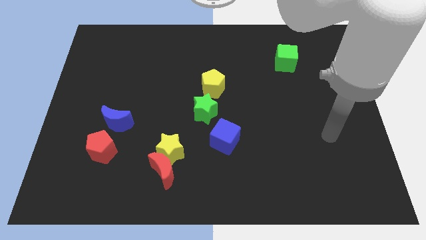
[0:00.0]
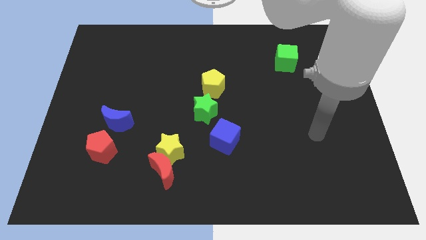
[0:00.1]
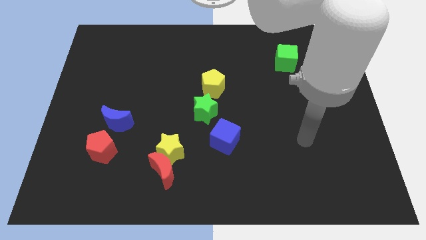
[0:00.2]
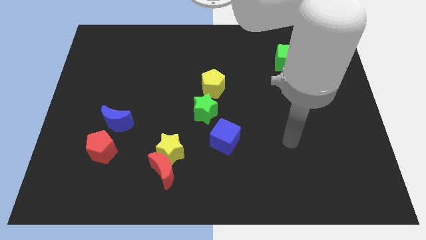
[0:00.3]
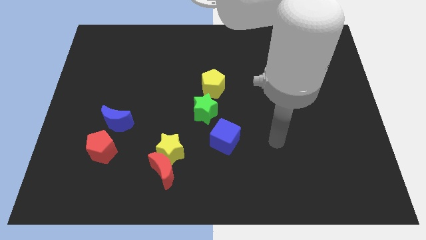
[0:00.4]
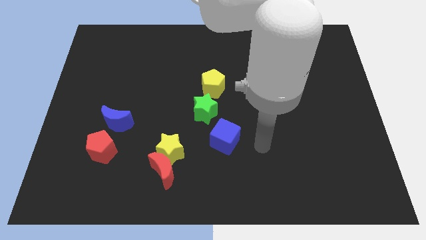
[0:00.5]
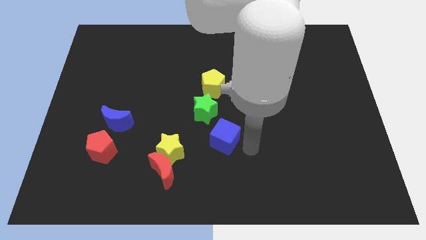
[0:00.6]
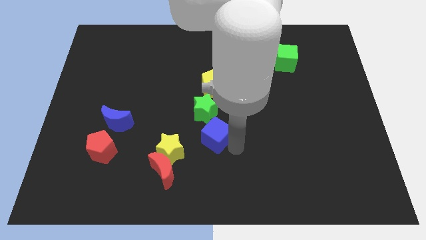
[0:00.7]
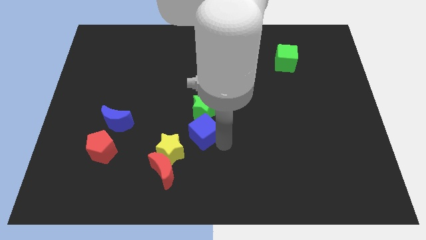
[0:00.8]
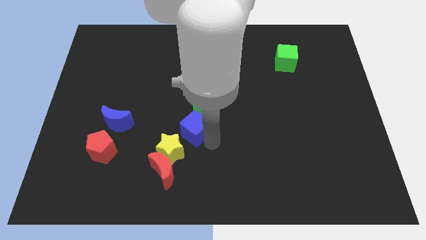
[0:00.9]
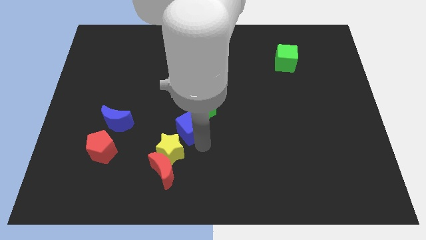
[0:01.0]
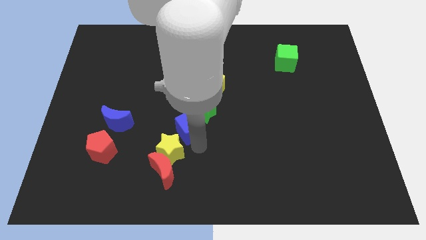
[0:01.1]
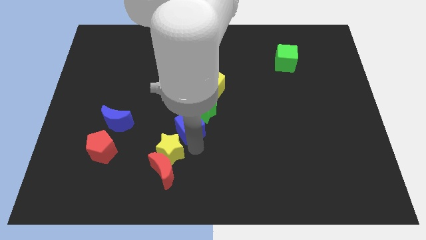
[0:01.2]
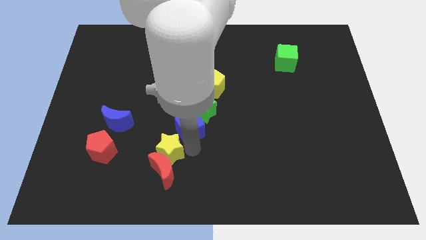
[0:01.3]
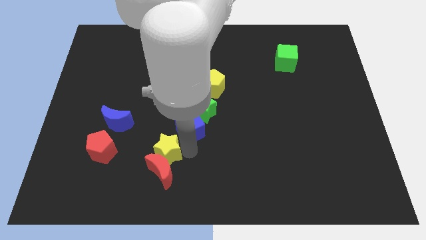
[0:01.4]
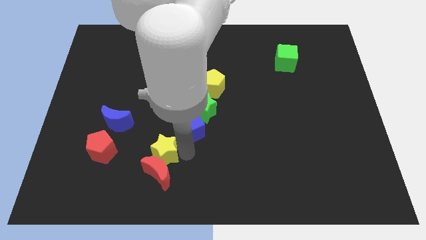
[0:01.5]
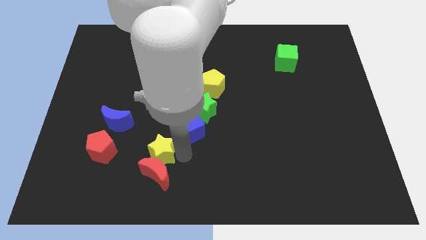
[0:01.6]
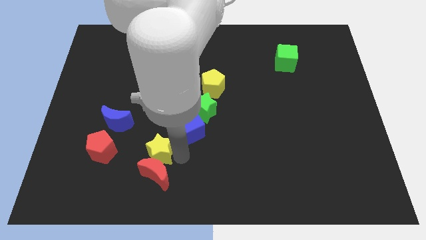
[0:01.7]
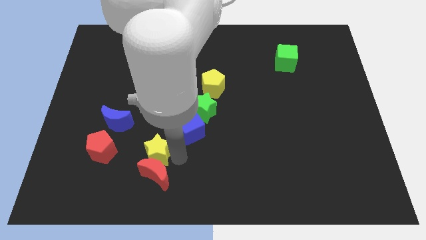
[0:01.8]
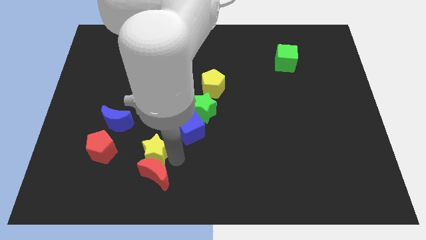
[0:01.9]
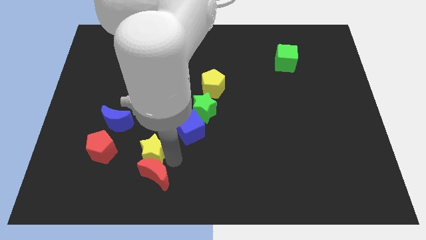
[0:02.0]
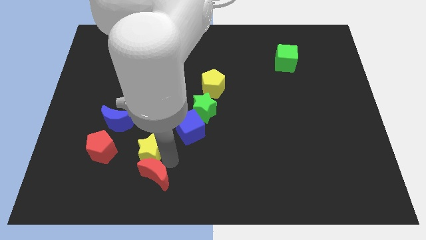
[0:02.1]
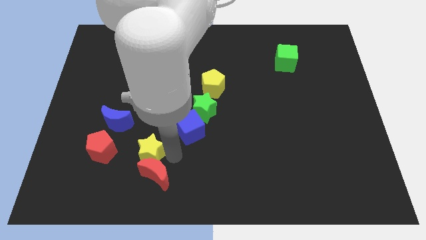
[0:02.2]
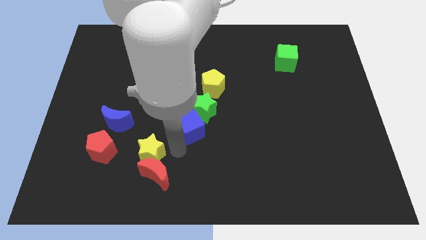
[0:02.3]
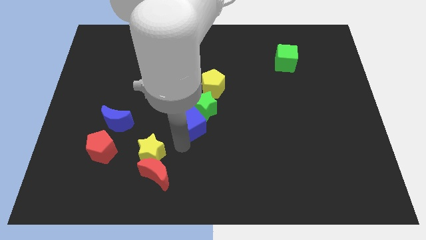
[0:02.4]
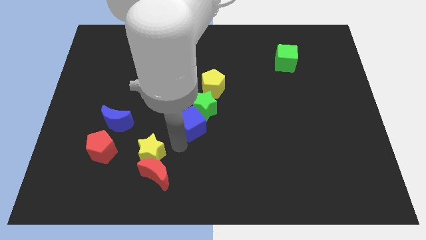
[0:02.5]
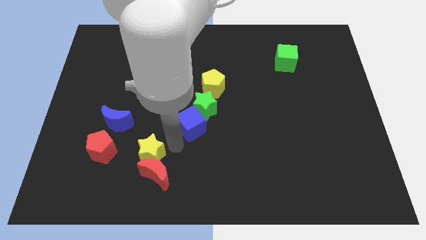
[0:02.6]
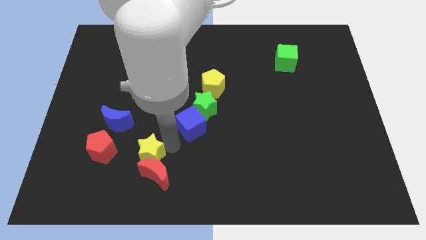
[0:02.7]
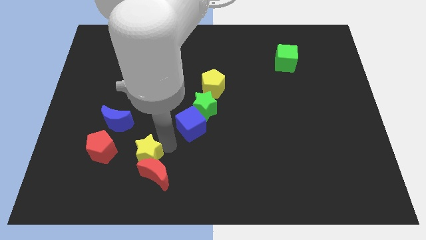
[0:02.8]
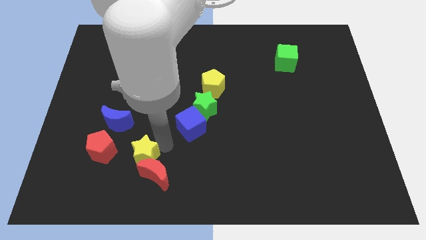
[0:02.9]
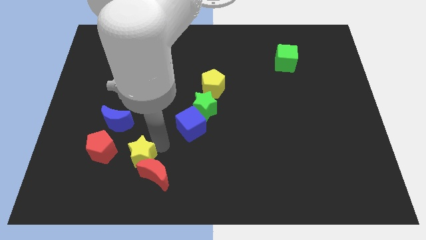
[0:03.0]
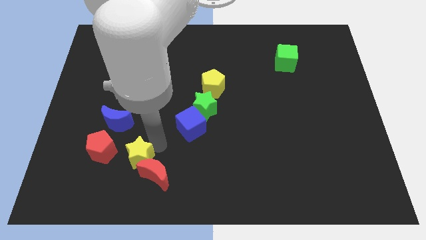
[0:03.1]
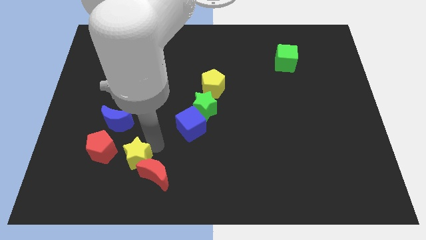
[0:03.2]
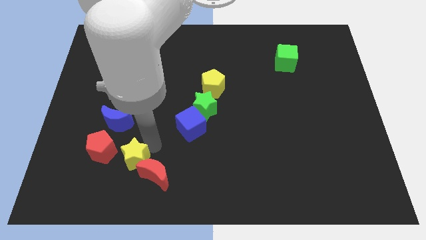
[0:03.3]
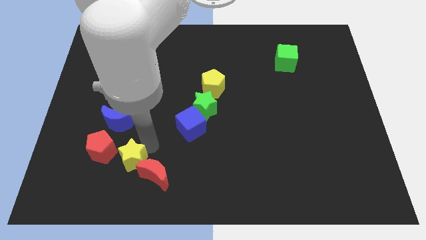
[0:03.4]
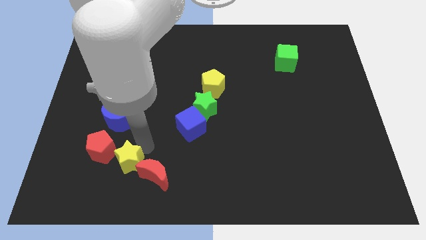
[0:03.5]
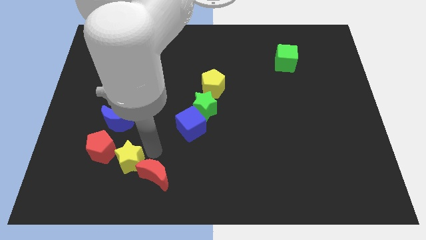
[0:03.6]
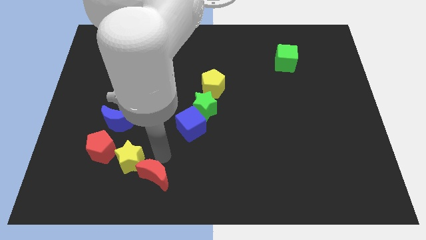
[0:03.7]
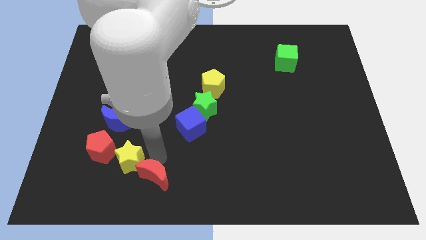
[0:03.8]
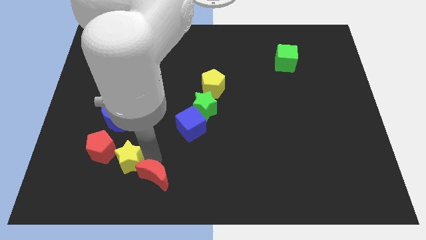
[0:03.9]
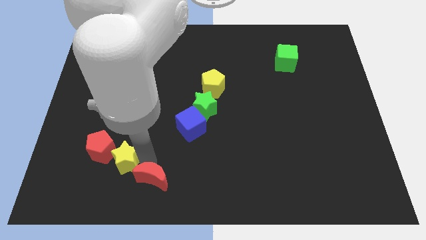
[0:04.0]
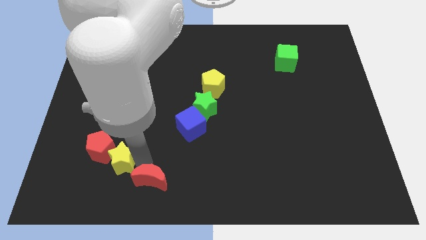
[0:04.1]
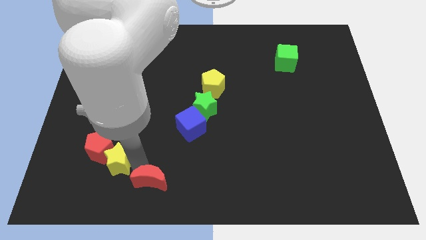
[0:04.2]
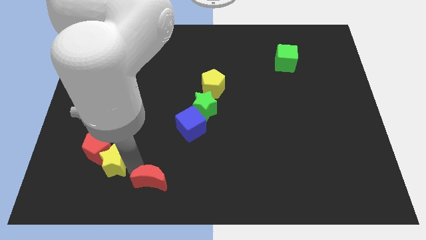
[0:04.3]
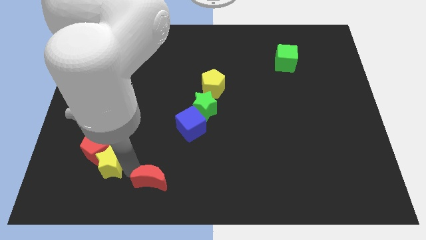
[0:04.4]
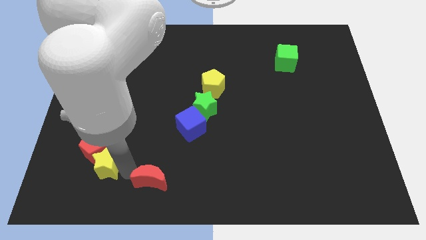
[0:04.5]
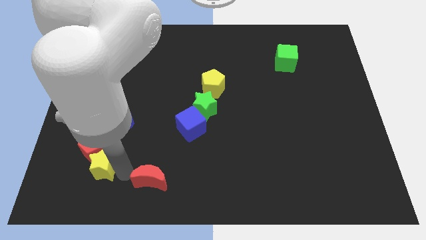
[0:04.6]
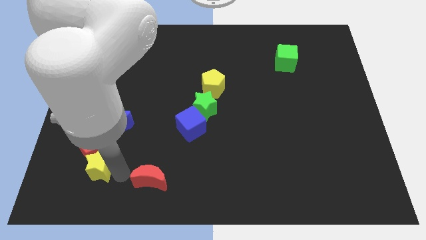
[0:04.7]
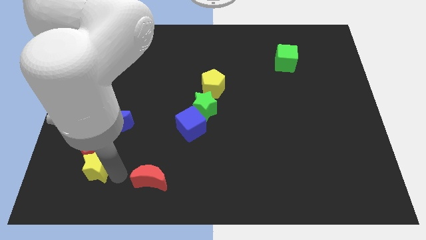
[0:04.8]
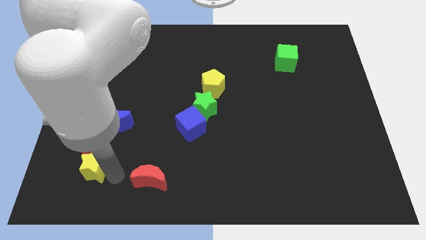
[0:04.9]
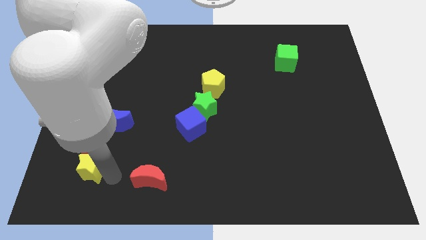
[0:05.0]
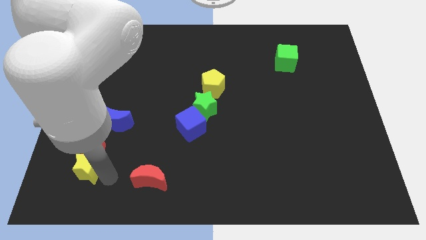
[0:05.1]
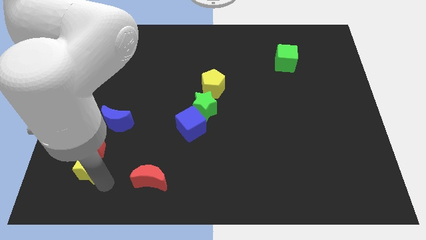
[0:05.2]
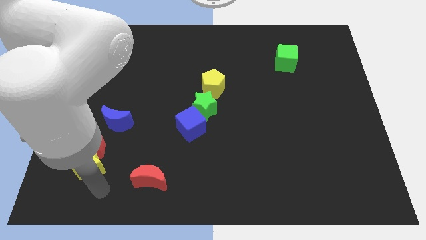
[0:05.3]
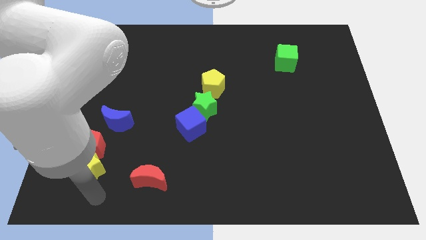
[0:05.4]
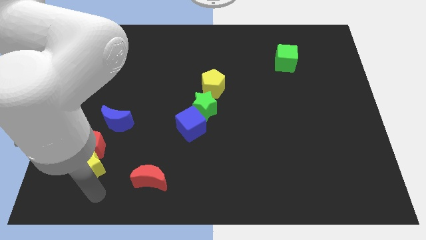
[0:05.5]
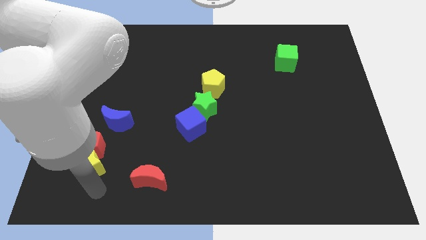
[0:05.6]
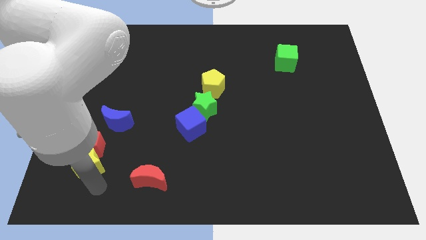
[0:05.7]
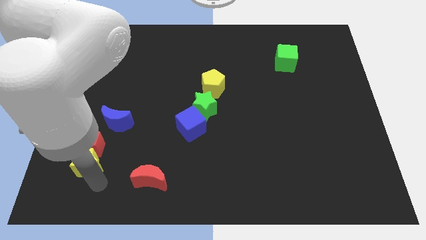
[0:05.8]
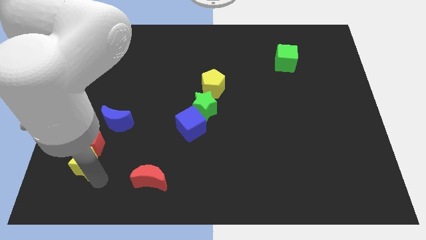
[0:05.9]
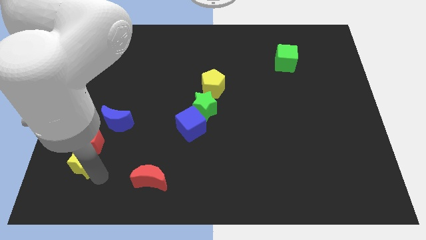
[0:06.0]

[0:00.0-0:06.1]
push the yellow star to the bottom left of the blue moon

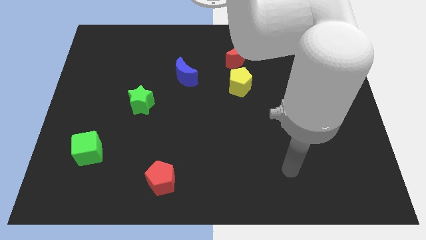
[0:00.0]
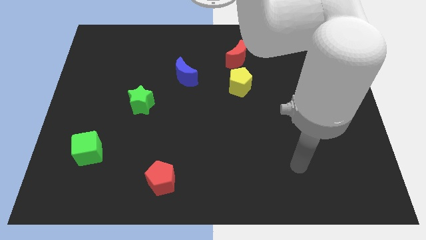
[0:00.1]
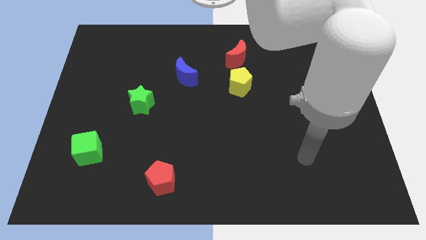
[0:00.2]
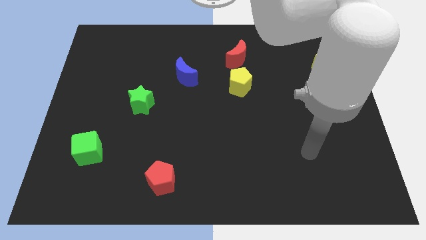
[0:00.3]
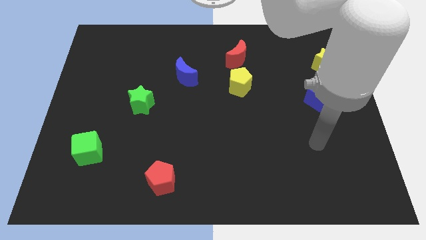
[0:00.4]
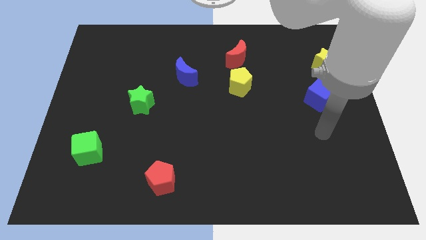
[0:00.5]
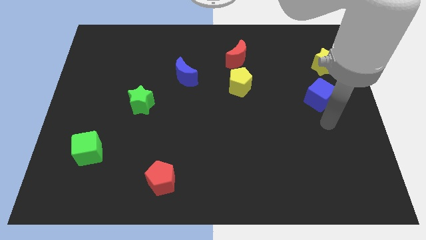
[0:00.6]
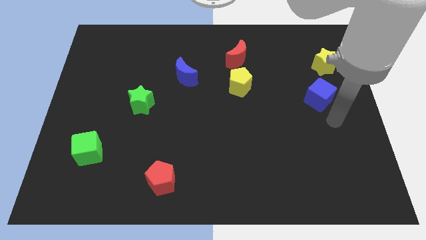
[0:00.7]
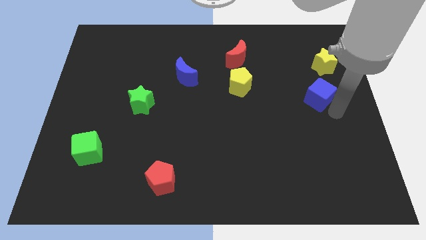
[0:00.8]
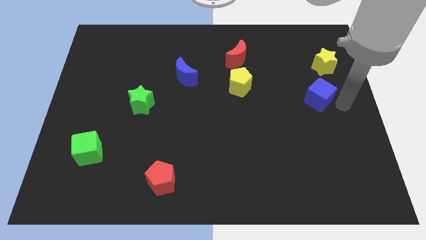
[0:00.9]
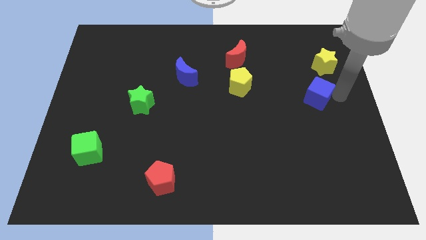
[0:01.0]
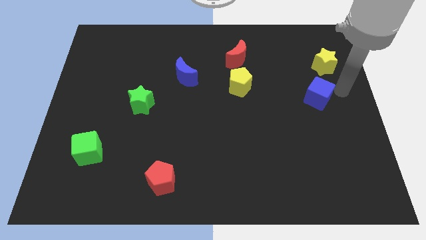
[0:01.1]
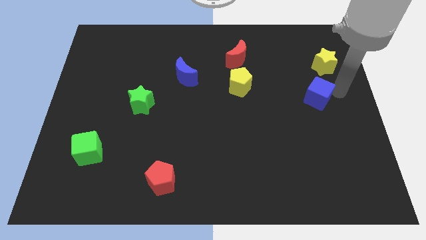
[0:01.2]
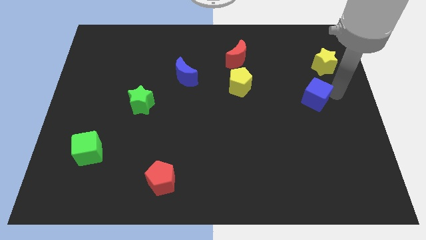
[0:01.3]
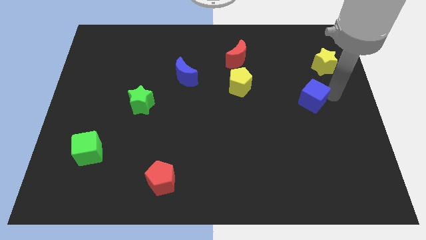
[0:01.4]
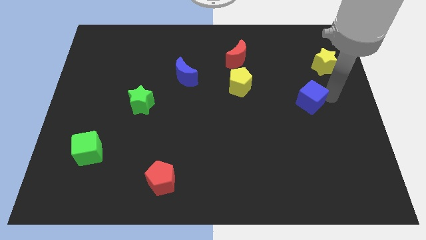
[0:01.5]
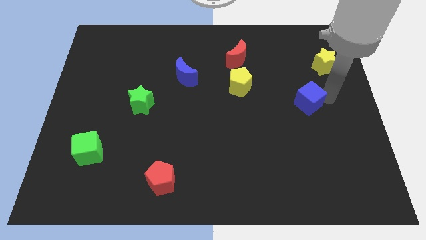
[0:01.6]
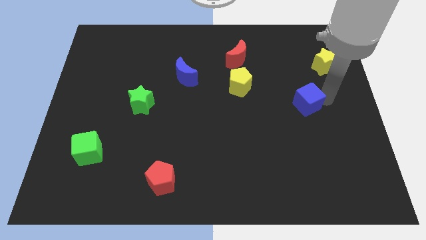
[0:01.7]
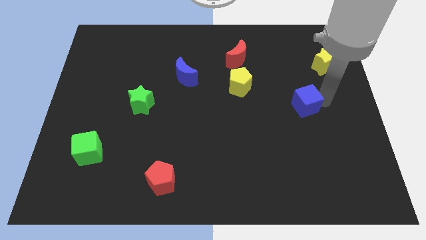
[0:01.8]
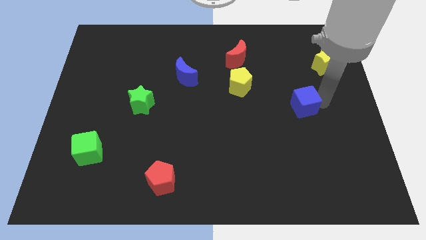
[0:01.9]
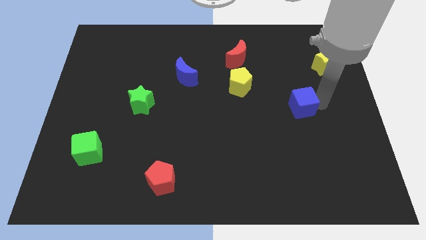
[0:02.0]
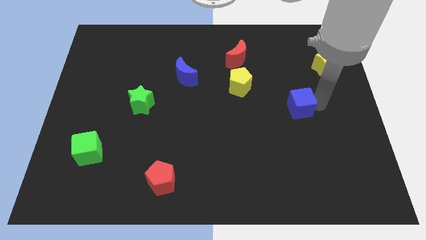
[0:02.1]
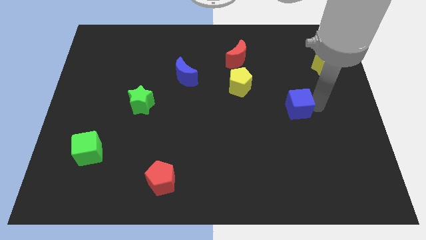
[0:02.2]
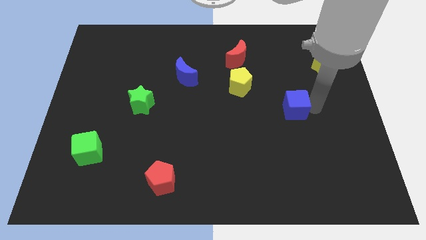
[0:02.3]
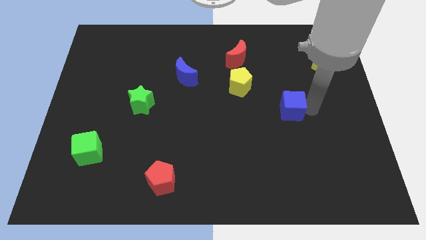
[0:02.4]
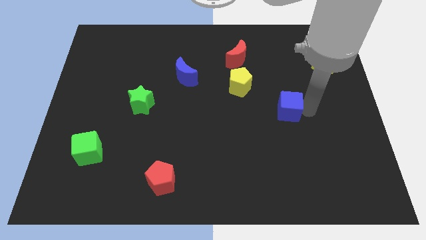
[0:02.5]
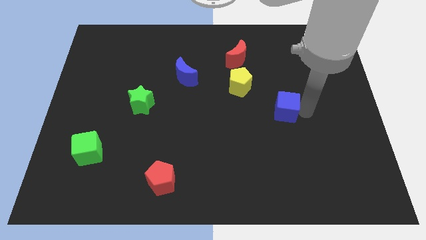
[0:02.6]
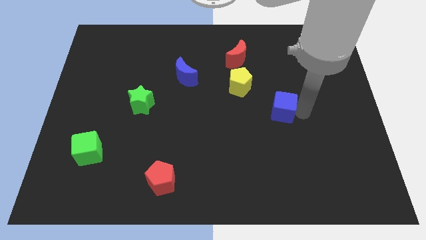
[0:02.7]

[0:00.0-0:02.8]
push the blue cube to the bottom right of the yellow pentagon
